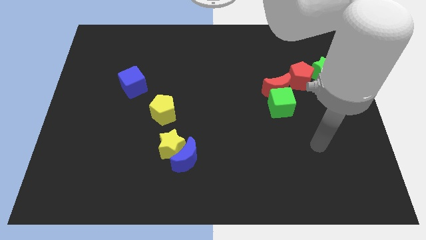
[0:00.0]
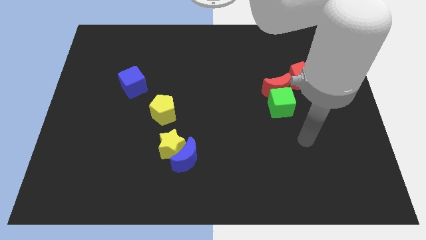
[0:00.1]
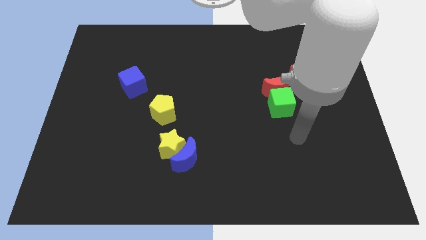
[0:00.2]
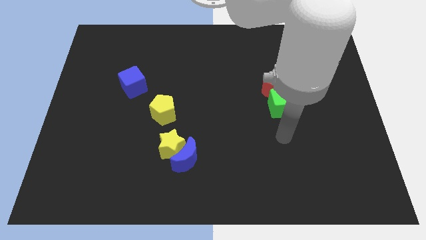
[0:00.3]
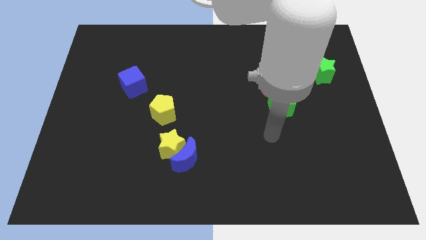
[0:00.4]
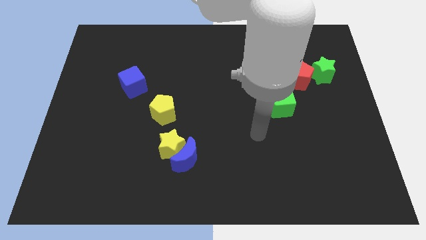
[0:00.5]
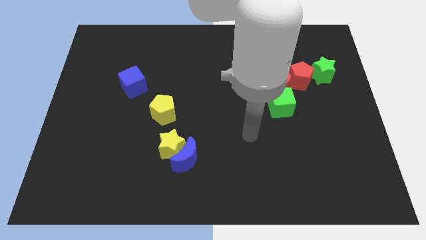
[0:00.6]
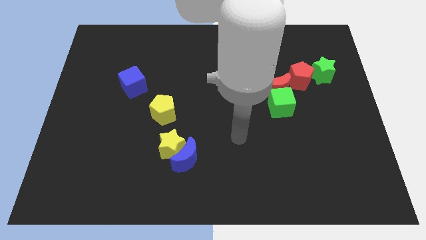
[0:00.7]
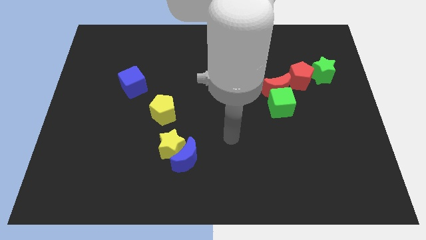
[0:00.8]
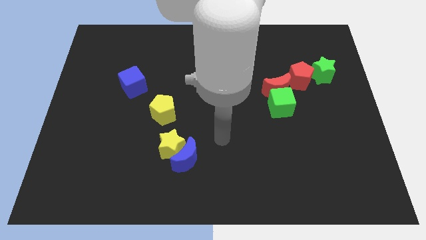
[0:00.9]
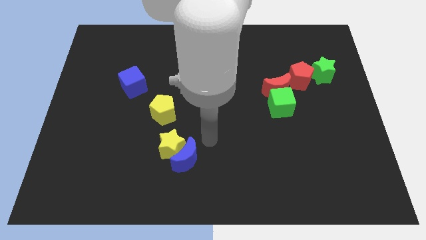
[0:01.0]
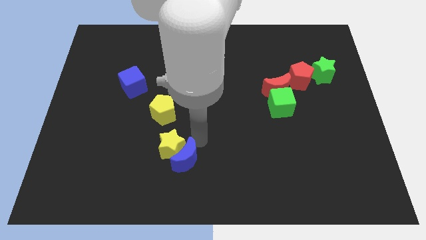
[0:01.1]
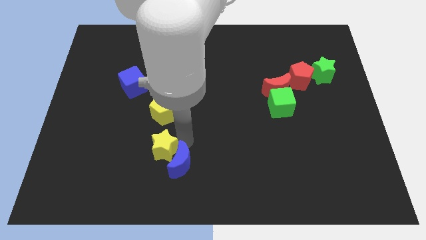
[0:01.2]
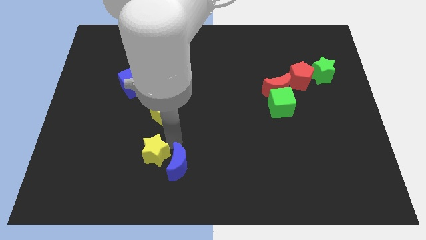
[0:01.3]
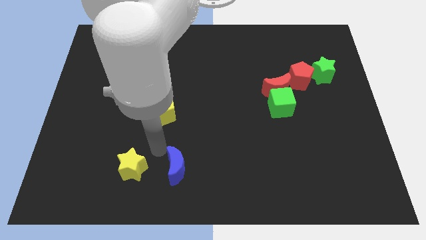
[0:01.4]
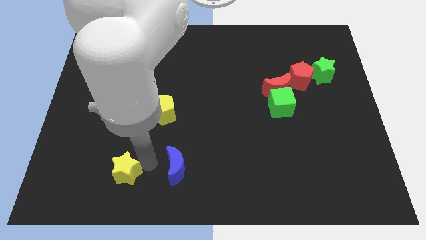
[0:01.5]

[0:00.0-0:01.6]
move the blue moon away from the yellow star

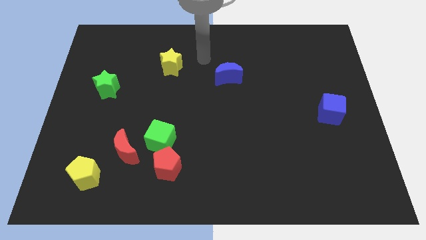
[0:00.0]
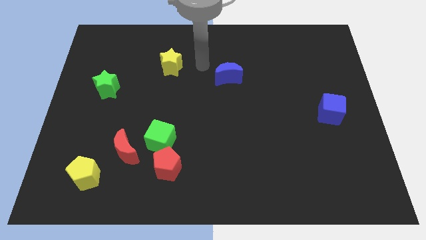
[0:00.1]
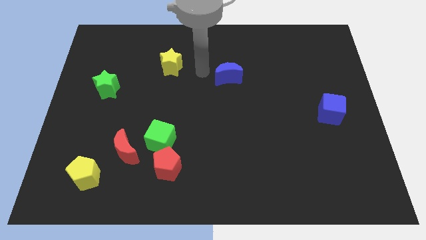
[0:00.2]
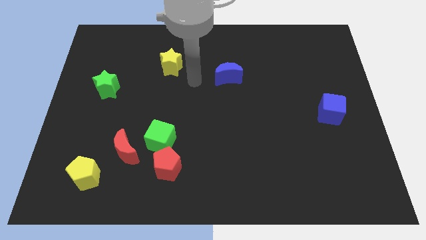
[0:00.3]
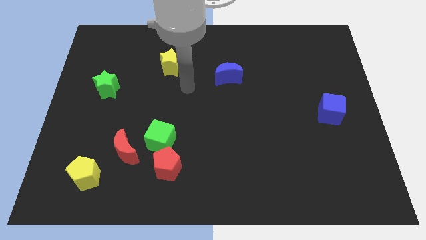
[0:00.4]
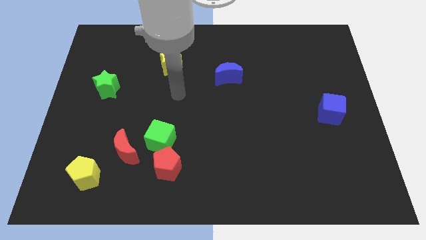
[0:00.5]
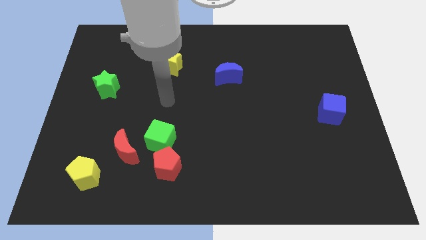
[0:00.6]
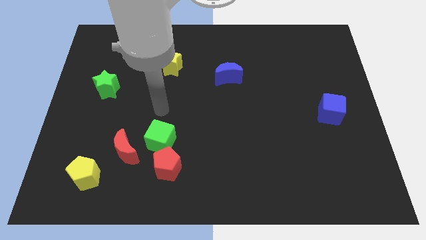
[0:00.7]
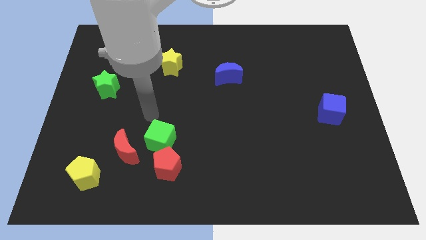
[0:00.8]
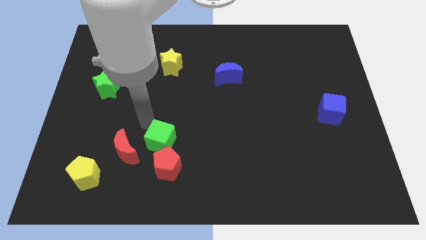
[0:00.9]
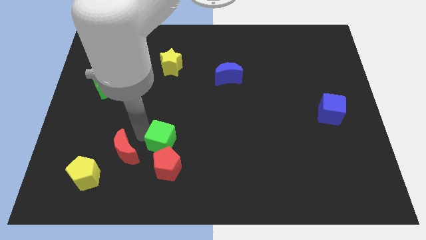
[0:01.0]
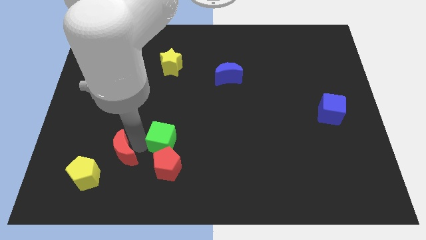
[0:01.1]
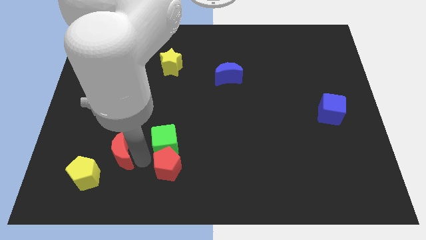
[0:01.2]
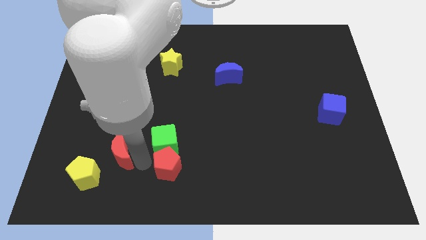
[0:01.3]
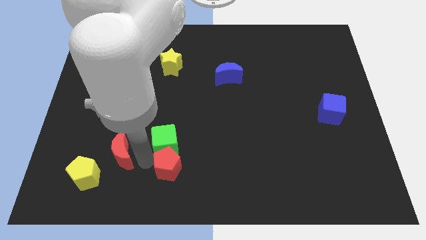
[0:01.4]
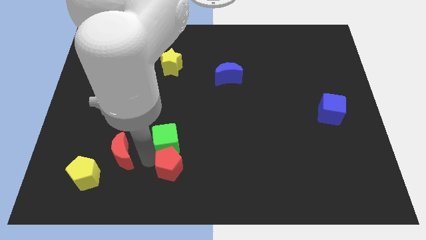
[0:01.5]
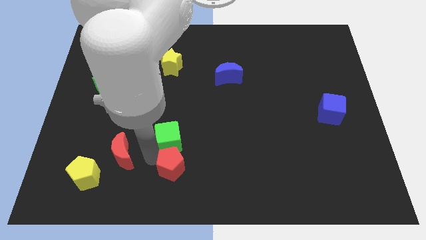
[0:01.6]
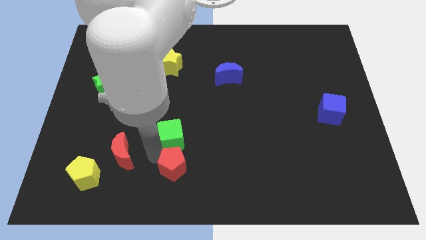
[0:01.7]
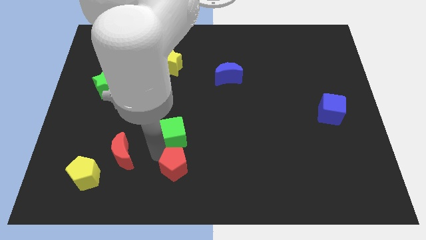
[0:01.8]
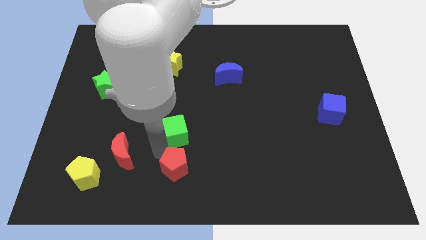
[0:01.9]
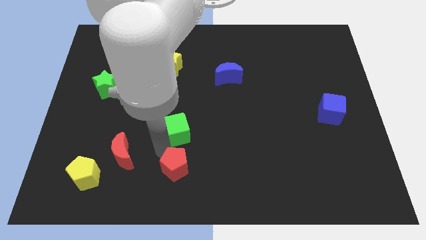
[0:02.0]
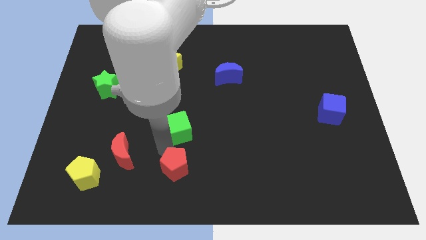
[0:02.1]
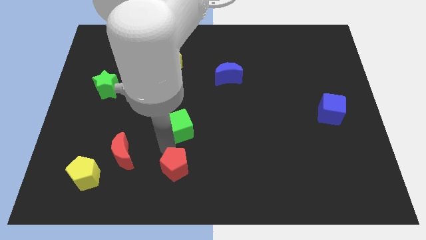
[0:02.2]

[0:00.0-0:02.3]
pull the green cube apart from the red pentagon and red moon

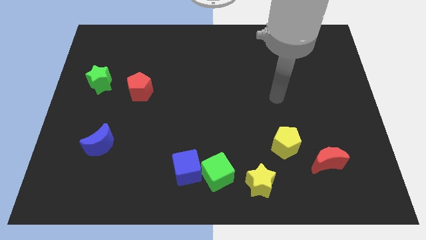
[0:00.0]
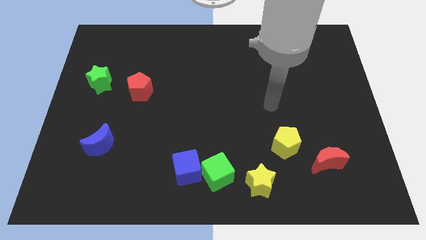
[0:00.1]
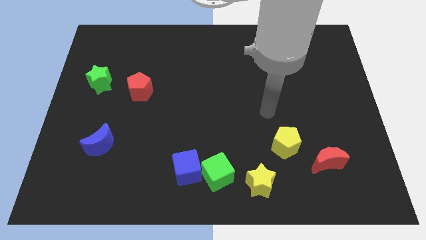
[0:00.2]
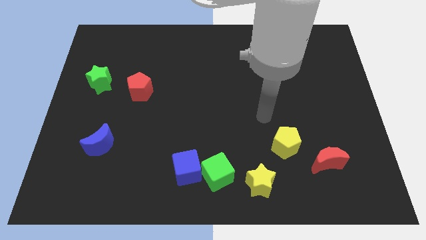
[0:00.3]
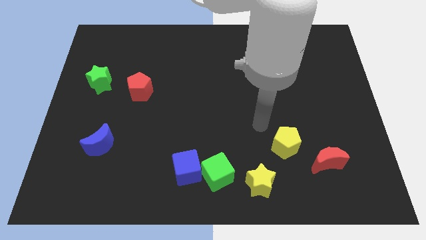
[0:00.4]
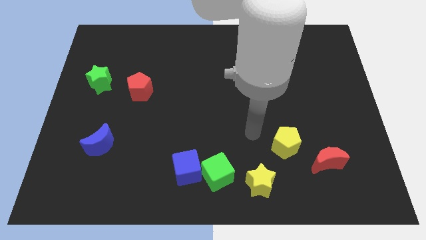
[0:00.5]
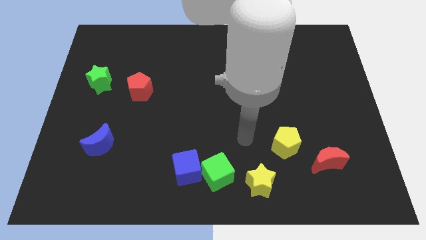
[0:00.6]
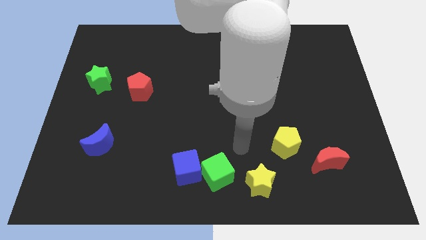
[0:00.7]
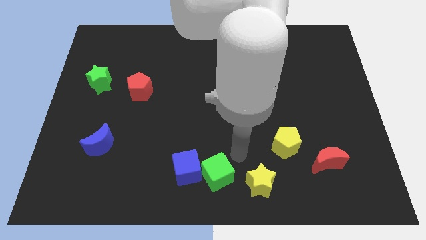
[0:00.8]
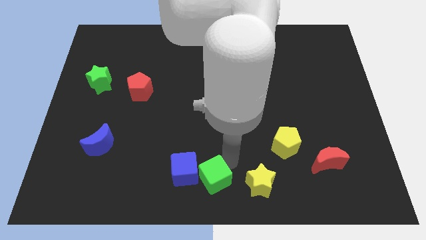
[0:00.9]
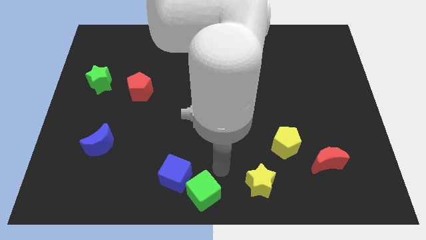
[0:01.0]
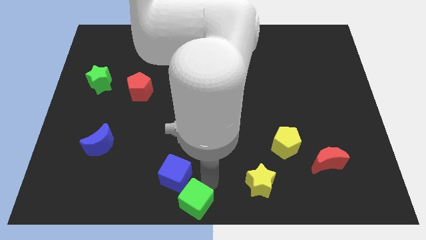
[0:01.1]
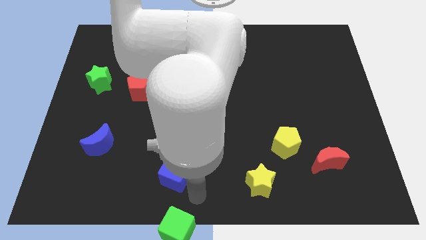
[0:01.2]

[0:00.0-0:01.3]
separate the blue cube from the green cube

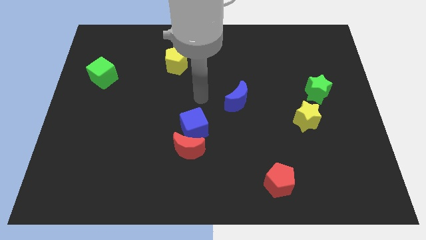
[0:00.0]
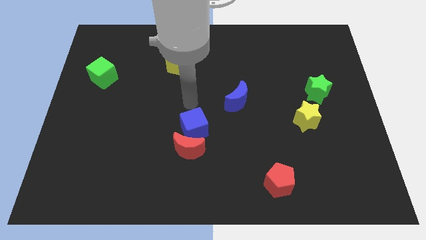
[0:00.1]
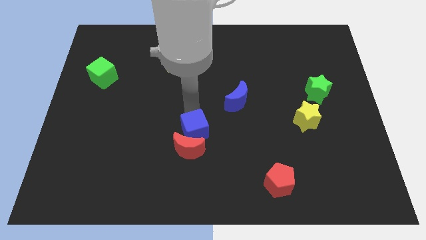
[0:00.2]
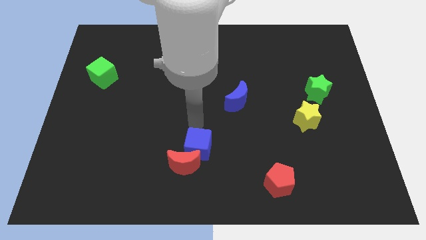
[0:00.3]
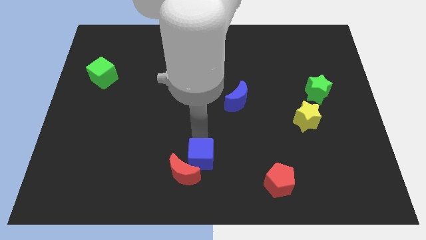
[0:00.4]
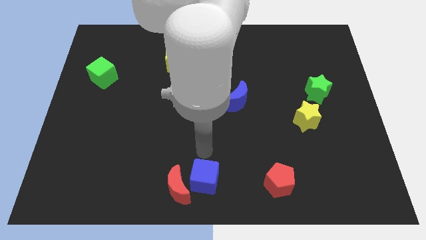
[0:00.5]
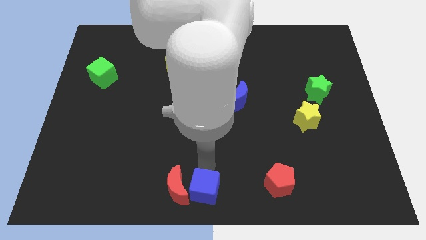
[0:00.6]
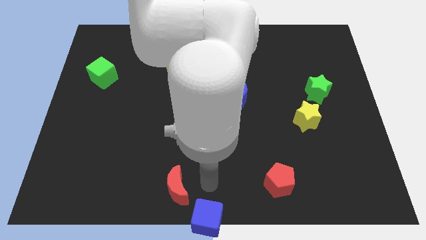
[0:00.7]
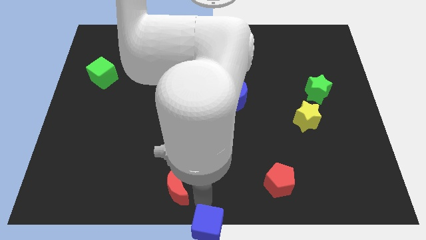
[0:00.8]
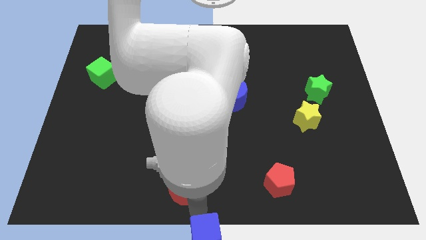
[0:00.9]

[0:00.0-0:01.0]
separate the red moon from the blue cube

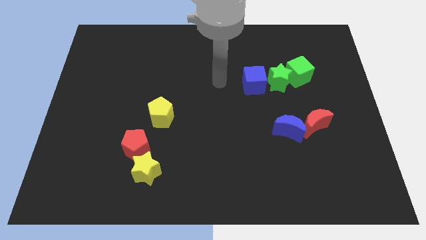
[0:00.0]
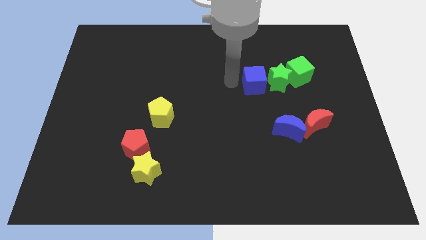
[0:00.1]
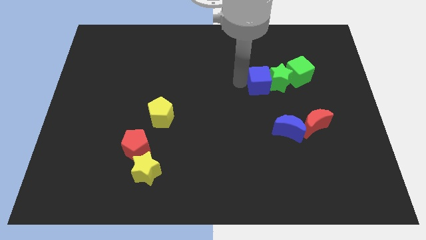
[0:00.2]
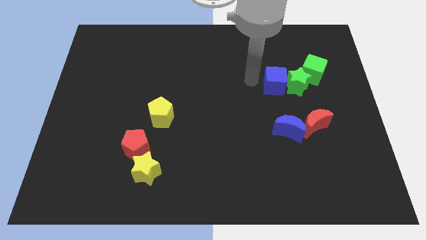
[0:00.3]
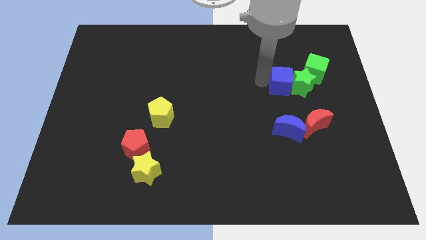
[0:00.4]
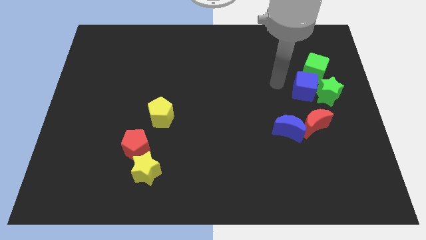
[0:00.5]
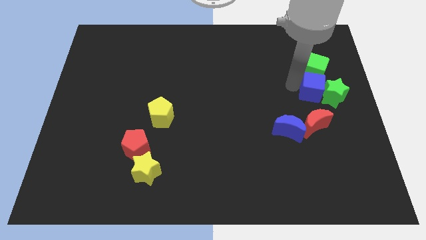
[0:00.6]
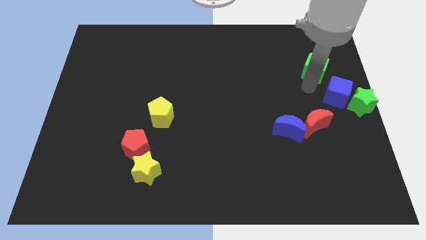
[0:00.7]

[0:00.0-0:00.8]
pull the green cube apart from the green star

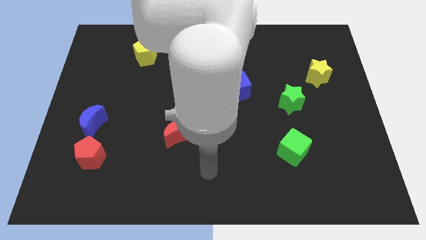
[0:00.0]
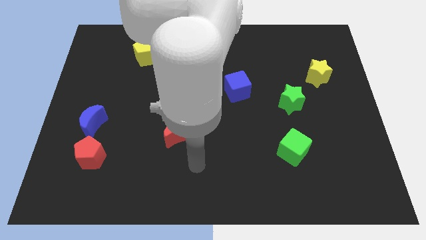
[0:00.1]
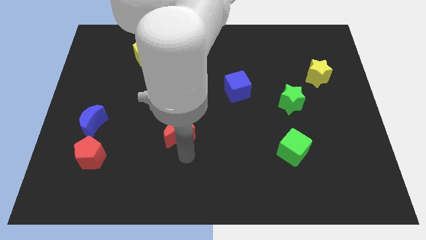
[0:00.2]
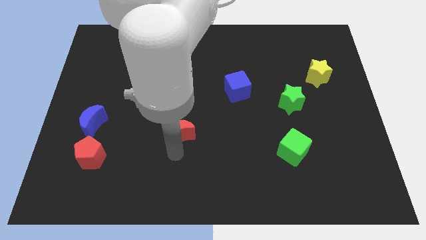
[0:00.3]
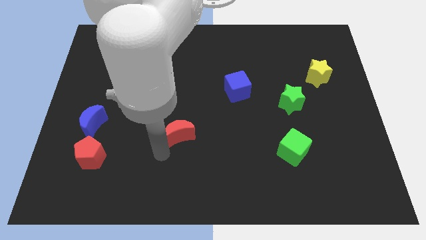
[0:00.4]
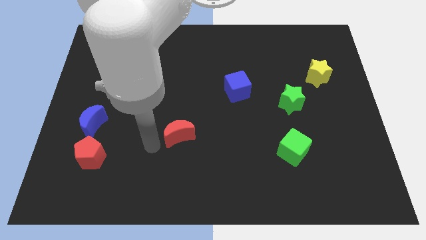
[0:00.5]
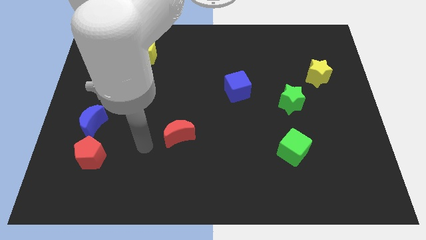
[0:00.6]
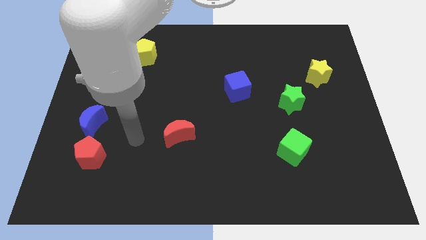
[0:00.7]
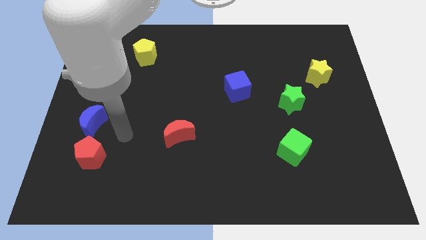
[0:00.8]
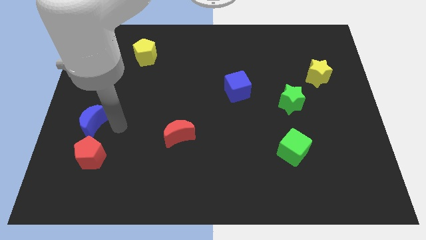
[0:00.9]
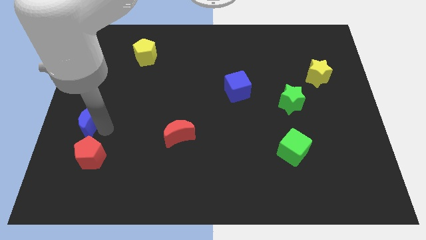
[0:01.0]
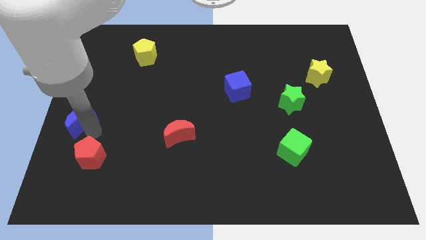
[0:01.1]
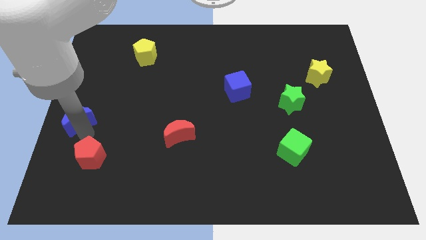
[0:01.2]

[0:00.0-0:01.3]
move the red pentagon away from the blue moon

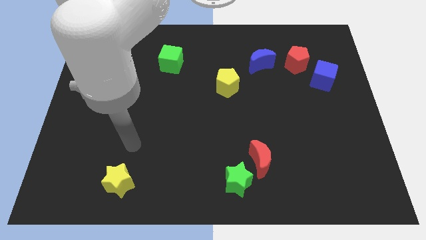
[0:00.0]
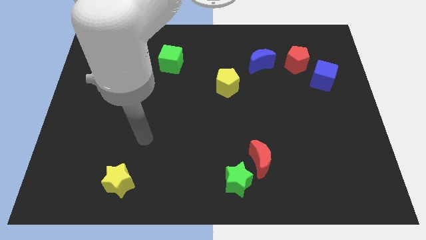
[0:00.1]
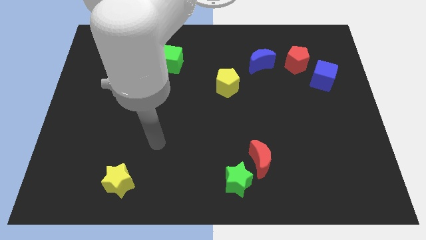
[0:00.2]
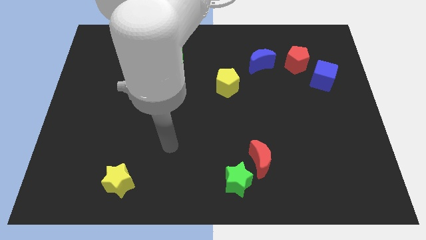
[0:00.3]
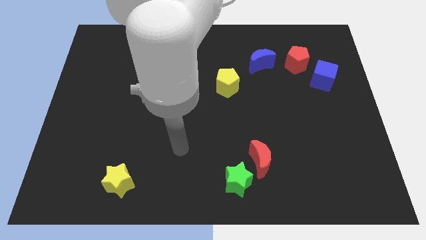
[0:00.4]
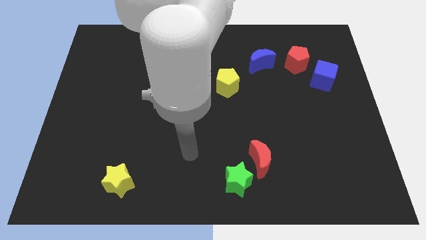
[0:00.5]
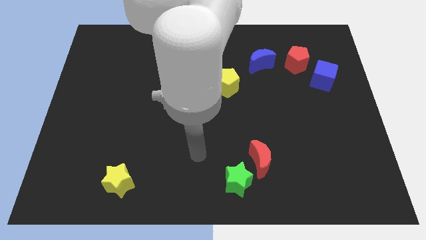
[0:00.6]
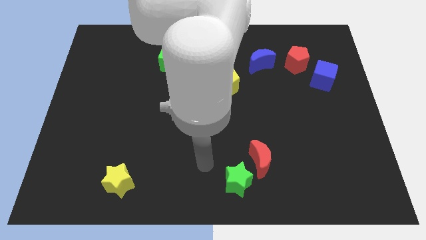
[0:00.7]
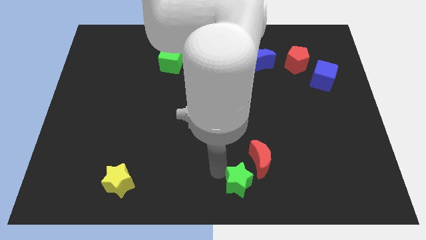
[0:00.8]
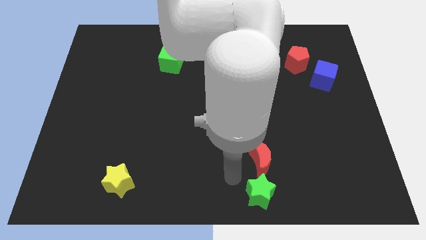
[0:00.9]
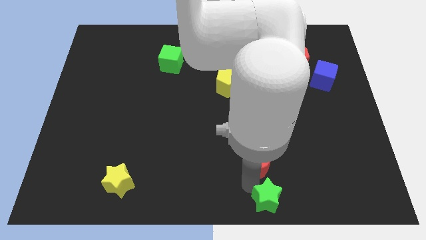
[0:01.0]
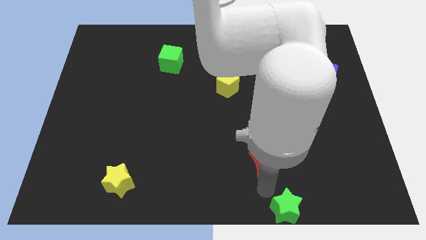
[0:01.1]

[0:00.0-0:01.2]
pull the red moon apart from the green star
